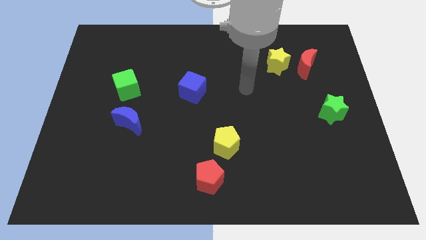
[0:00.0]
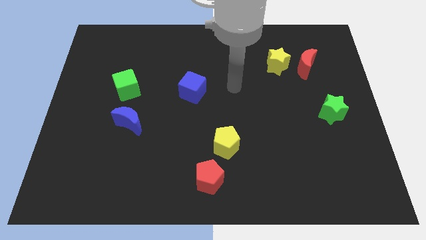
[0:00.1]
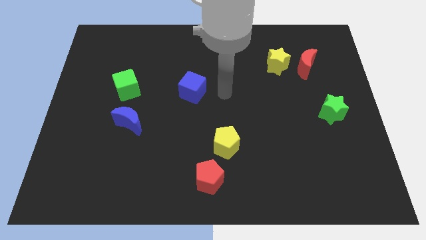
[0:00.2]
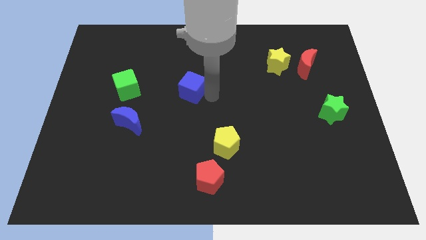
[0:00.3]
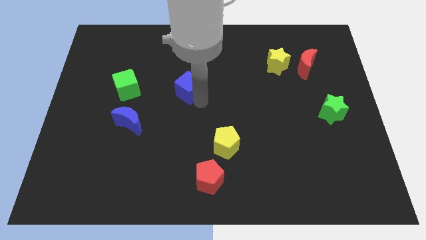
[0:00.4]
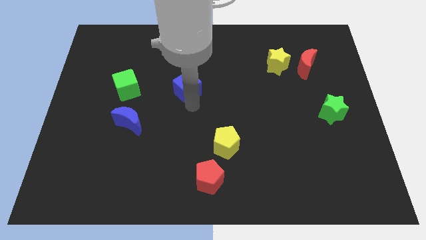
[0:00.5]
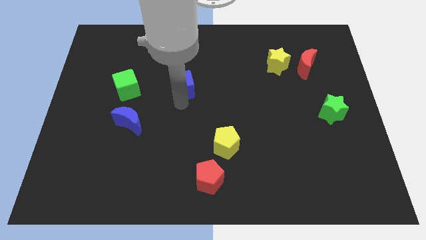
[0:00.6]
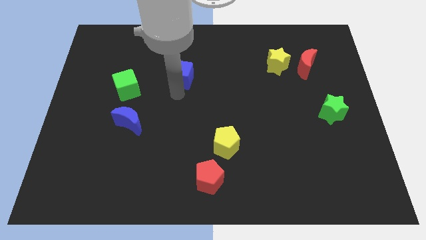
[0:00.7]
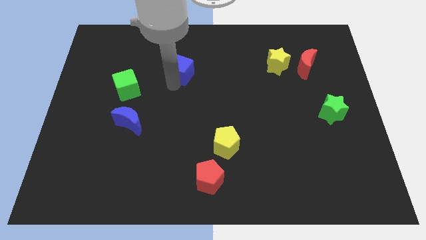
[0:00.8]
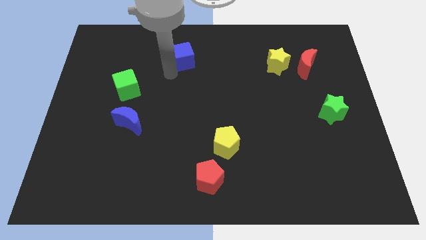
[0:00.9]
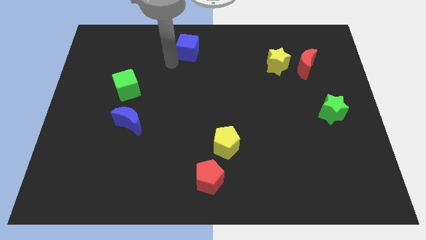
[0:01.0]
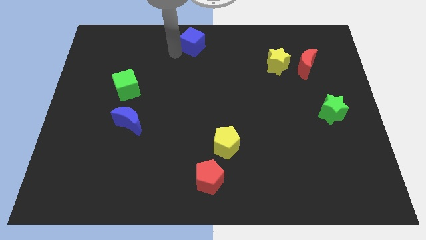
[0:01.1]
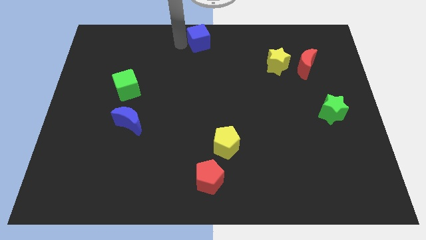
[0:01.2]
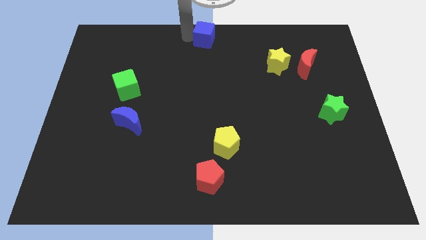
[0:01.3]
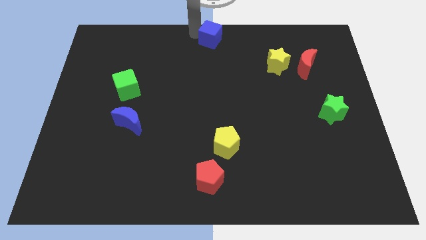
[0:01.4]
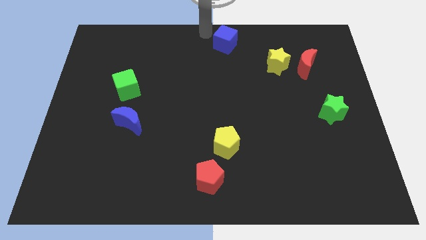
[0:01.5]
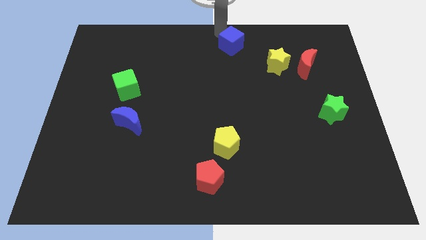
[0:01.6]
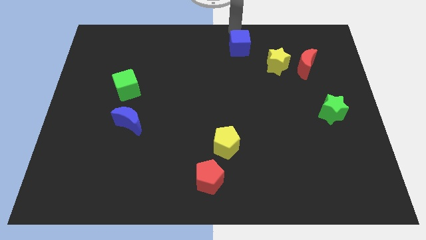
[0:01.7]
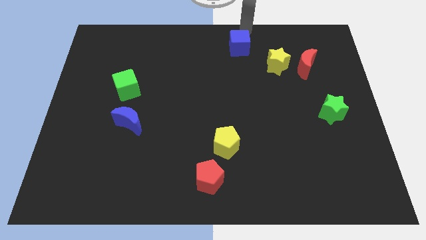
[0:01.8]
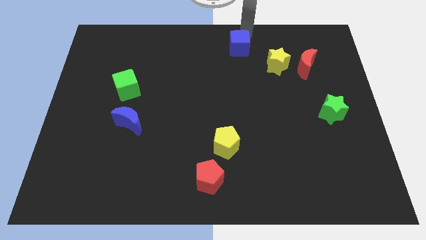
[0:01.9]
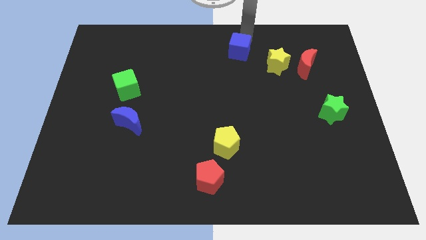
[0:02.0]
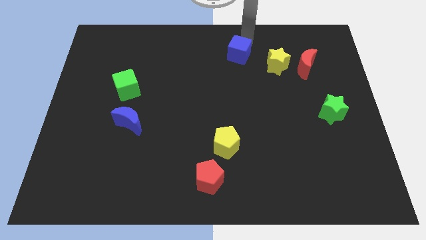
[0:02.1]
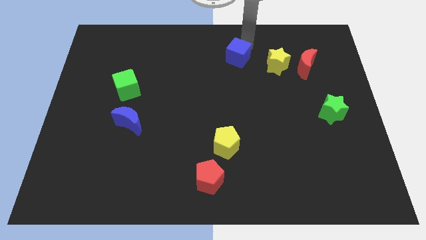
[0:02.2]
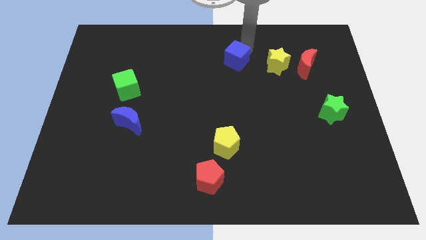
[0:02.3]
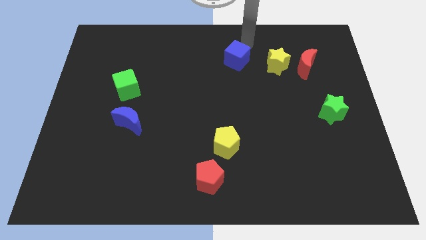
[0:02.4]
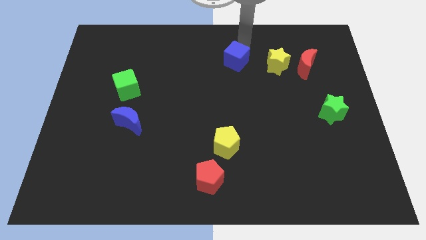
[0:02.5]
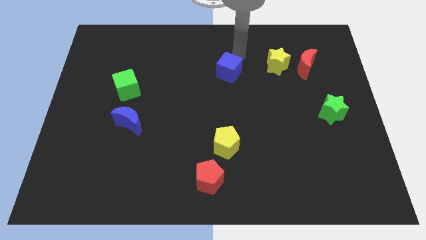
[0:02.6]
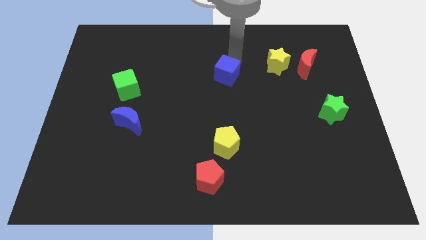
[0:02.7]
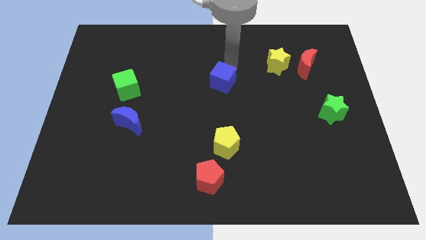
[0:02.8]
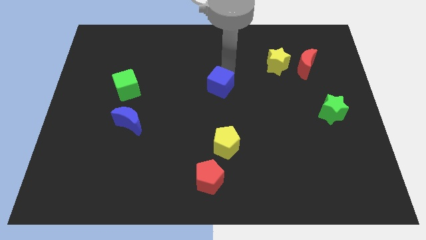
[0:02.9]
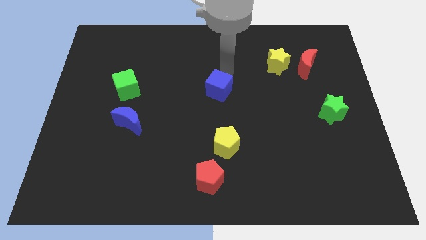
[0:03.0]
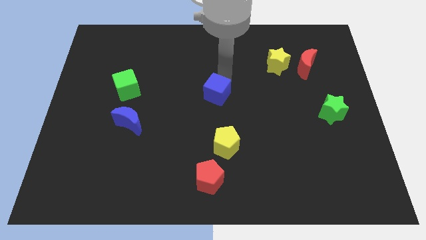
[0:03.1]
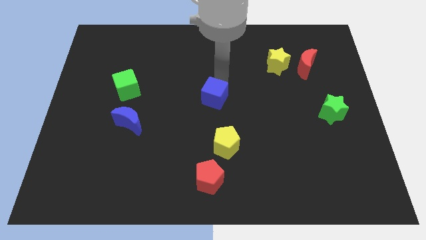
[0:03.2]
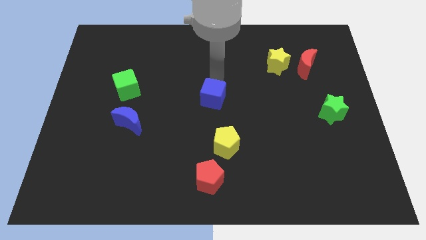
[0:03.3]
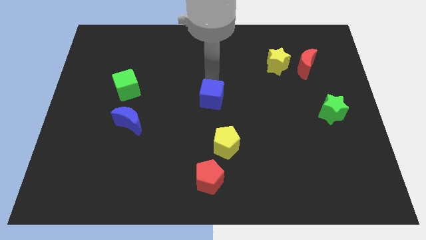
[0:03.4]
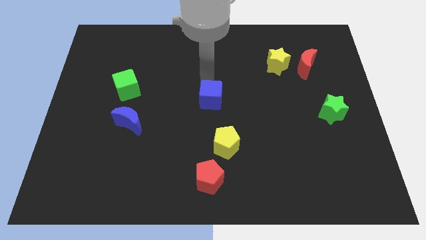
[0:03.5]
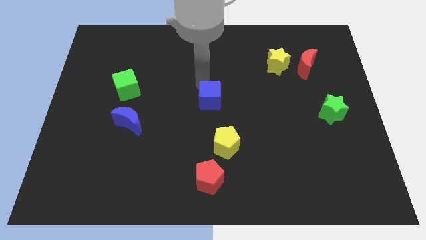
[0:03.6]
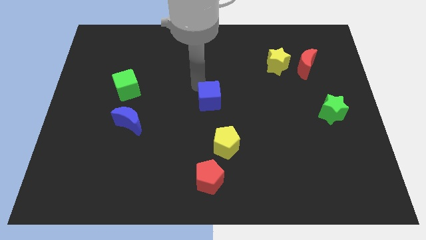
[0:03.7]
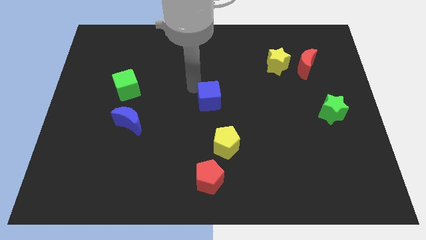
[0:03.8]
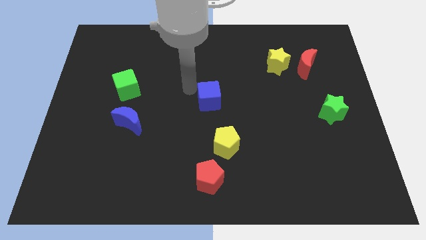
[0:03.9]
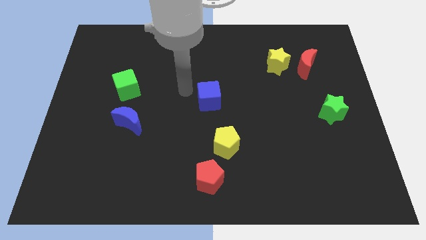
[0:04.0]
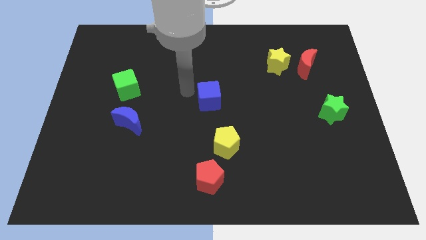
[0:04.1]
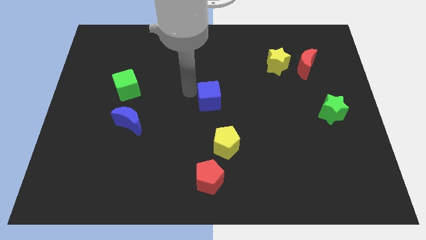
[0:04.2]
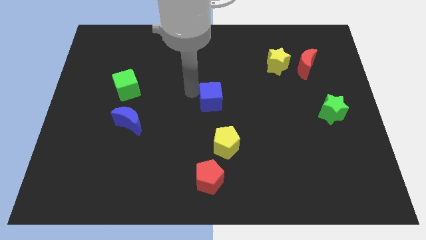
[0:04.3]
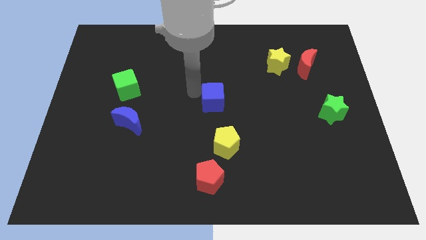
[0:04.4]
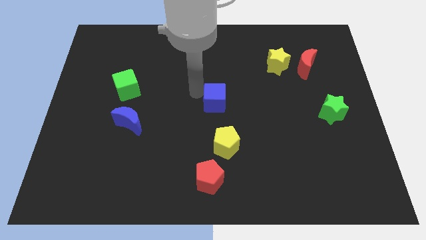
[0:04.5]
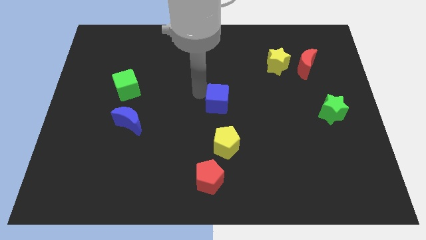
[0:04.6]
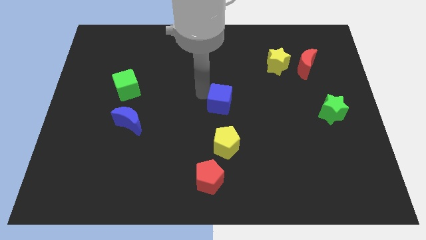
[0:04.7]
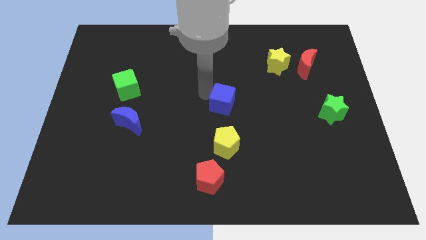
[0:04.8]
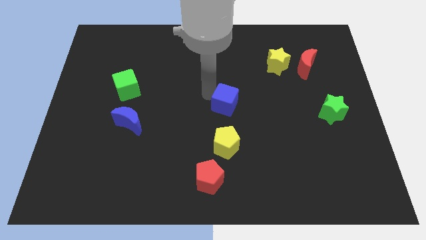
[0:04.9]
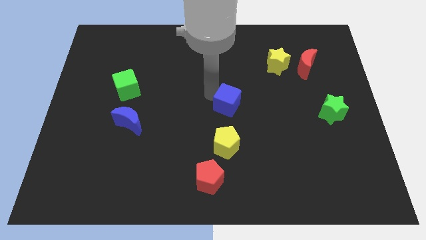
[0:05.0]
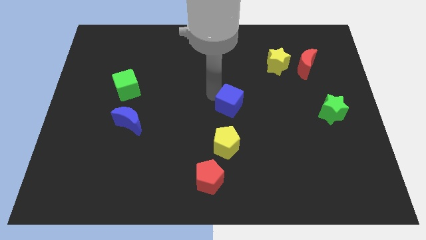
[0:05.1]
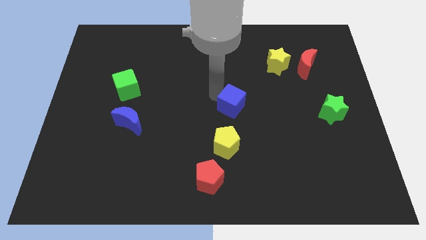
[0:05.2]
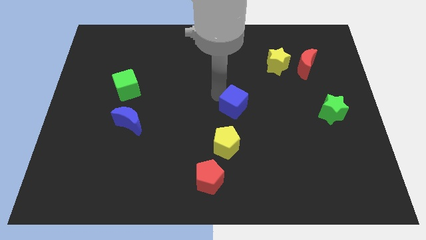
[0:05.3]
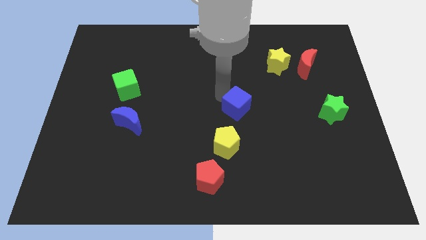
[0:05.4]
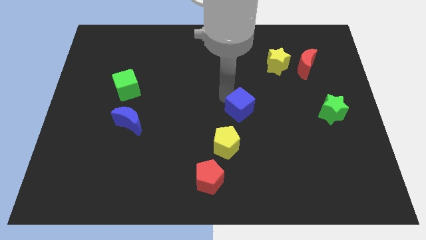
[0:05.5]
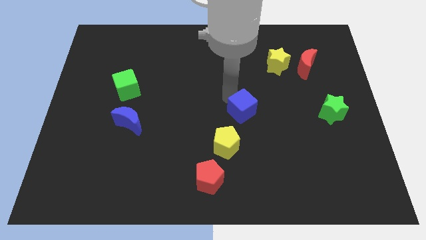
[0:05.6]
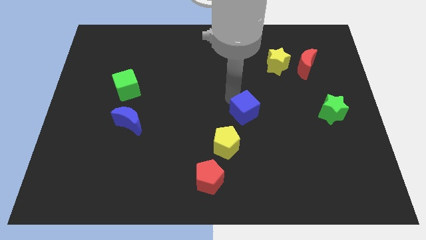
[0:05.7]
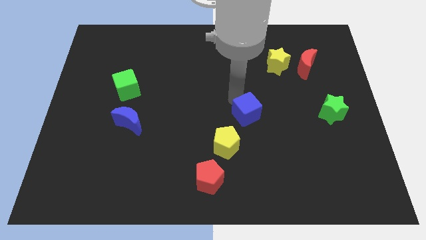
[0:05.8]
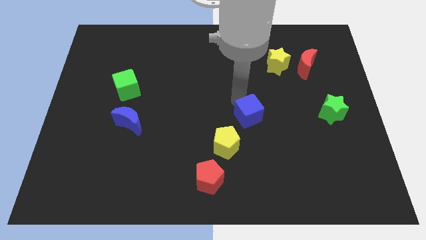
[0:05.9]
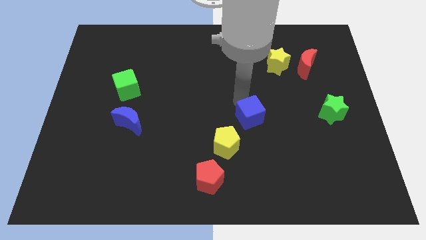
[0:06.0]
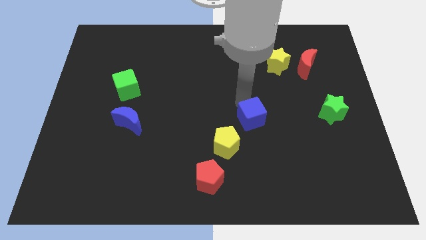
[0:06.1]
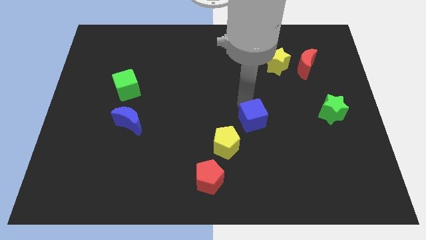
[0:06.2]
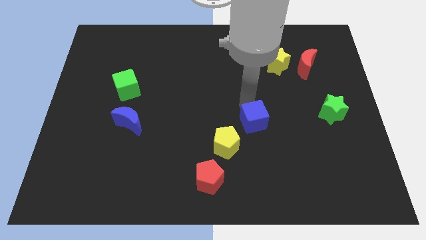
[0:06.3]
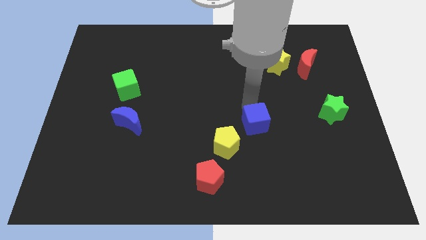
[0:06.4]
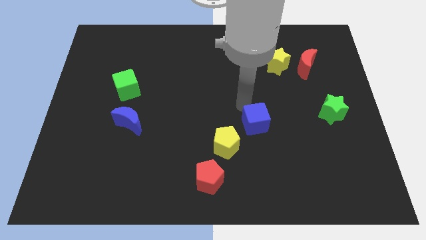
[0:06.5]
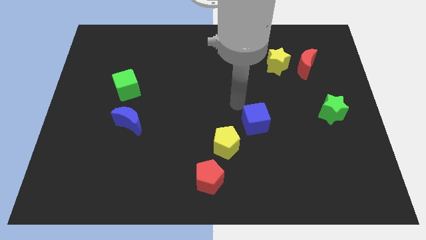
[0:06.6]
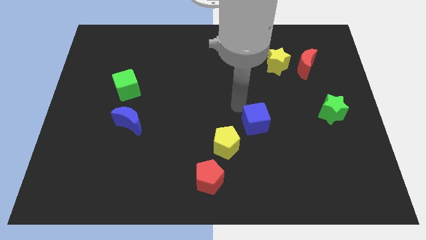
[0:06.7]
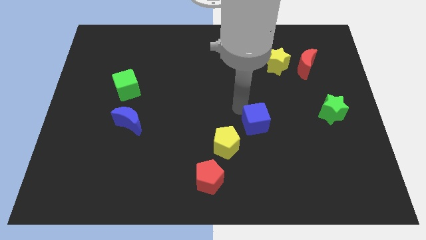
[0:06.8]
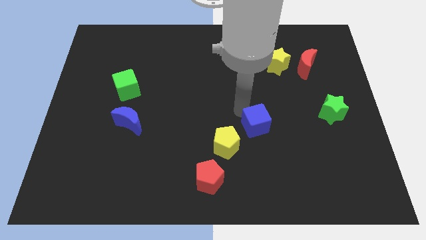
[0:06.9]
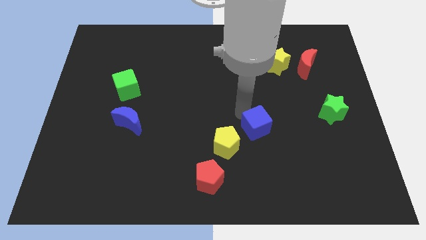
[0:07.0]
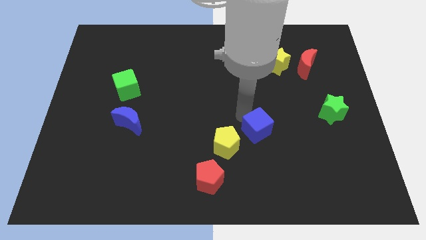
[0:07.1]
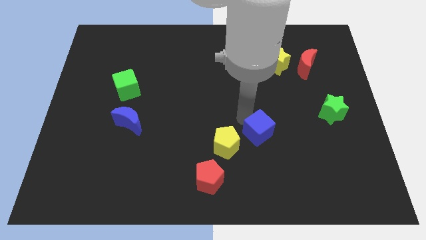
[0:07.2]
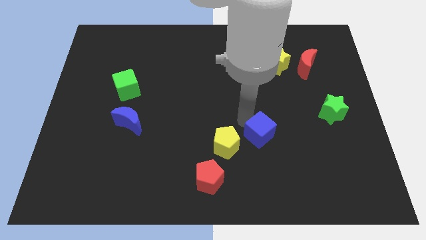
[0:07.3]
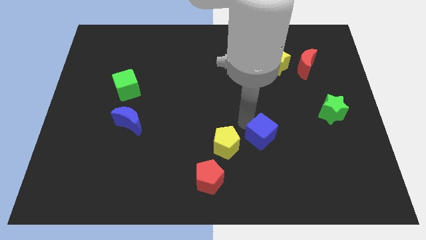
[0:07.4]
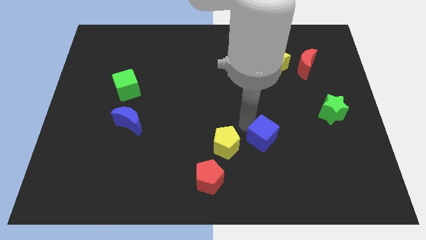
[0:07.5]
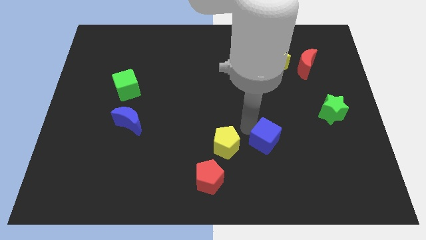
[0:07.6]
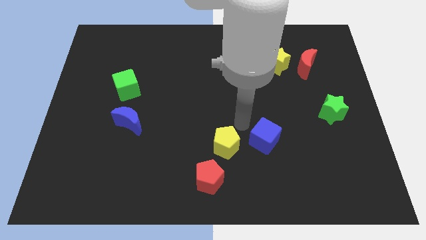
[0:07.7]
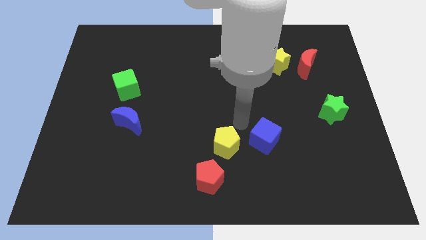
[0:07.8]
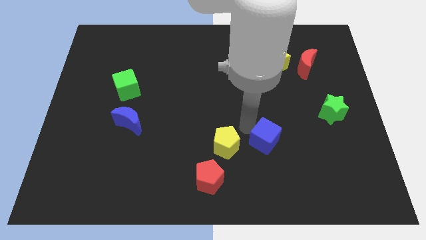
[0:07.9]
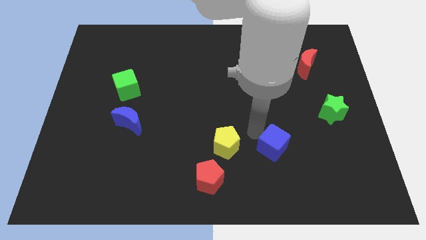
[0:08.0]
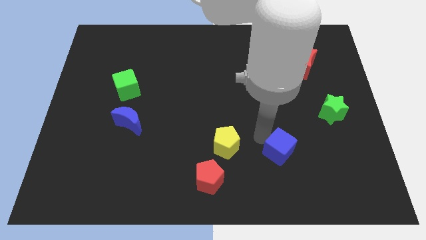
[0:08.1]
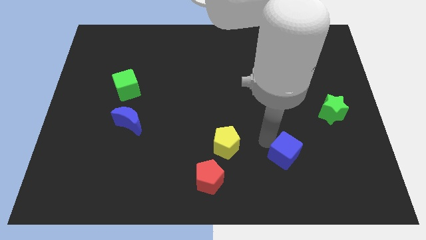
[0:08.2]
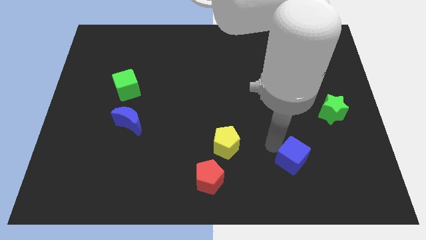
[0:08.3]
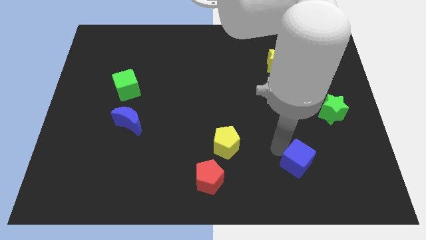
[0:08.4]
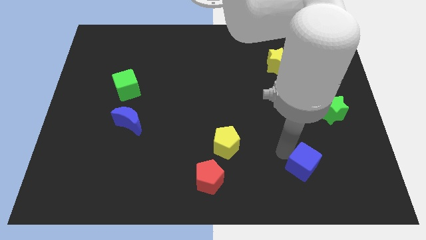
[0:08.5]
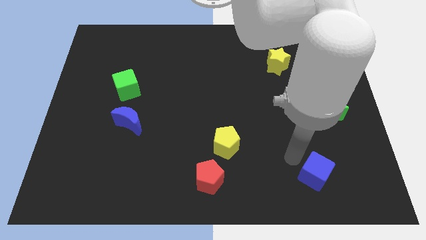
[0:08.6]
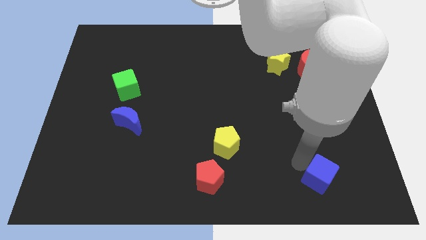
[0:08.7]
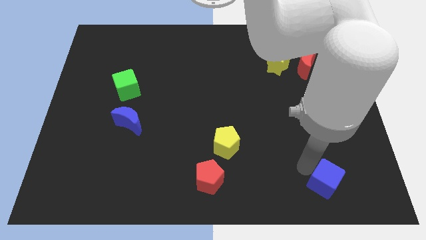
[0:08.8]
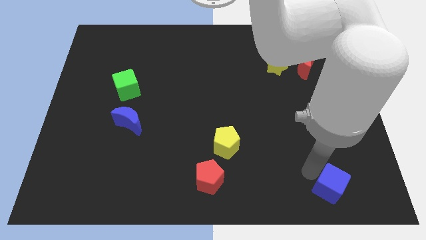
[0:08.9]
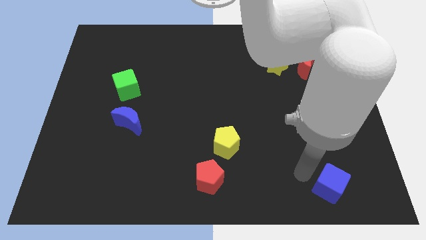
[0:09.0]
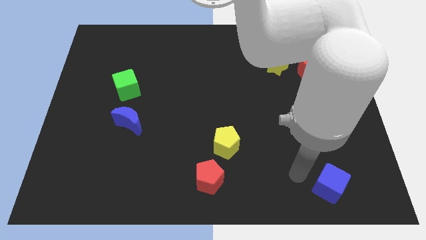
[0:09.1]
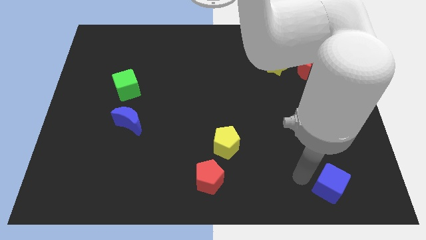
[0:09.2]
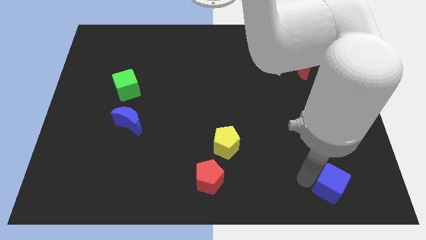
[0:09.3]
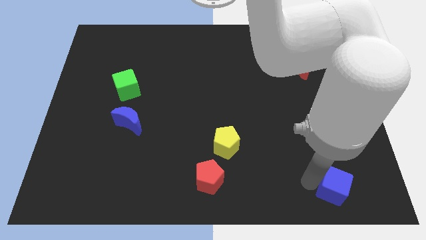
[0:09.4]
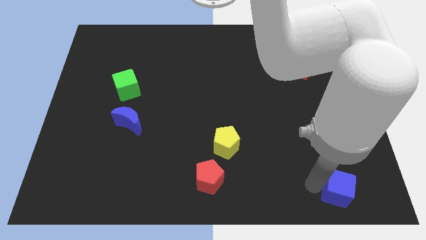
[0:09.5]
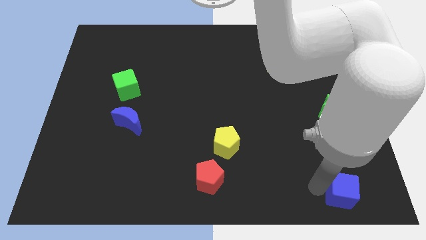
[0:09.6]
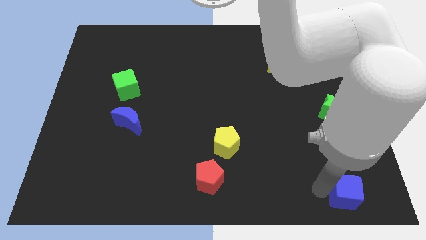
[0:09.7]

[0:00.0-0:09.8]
slide the blue cube to the bottom right of the board
